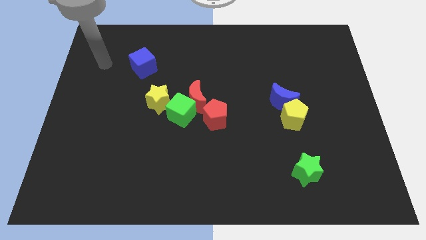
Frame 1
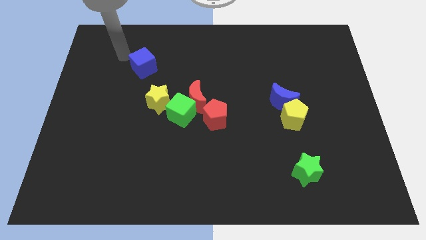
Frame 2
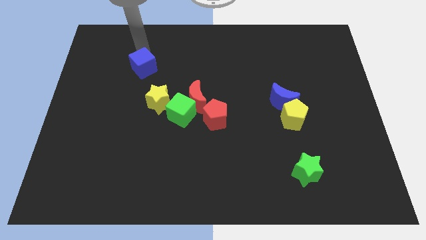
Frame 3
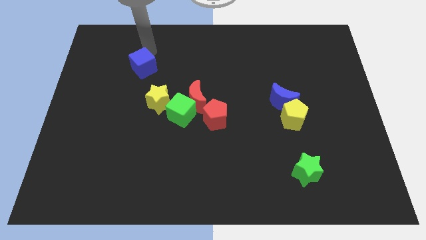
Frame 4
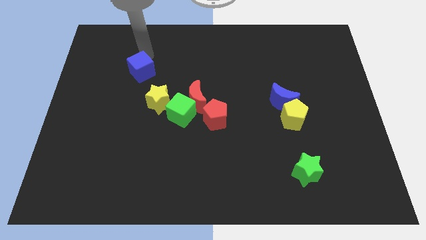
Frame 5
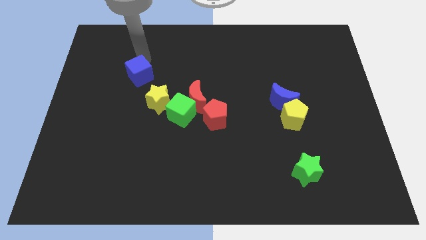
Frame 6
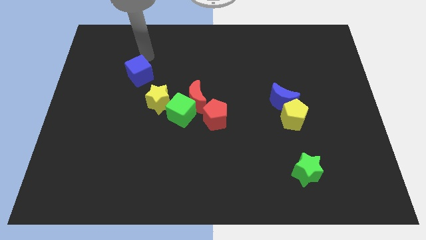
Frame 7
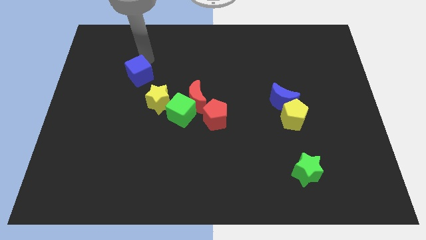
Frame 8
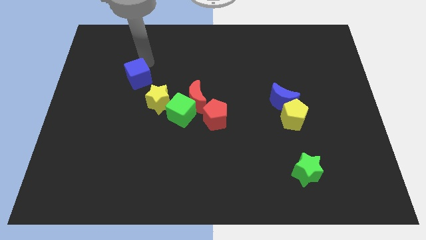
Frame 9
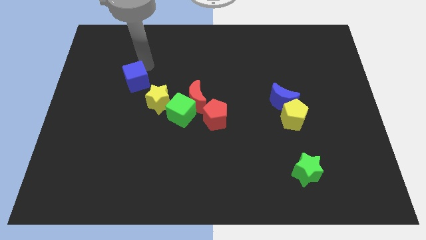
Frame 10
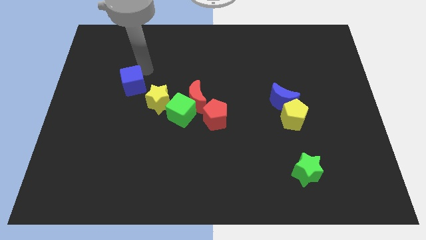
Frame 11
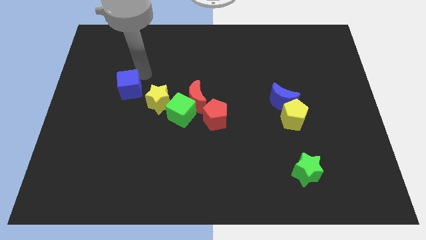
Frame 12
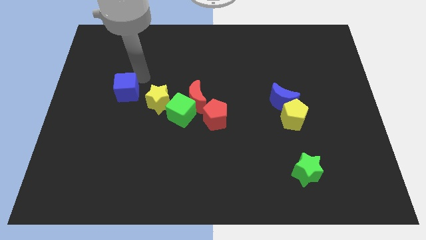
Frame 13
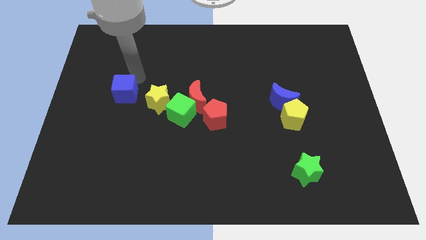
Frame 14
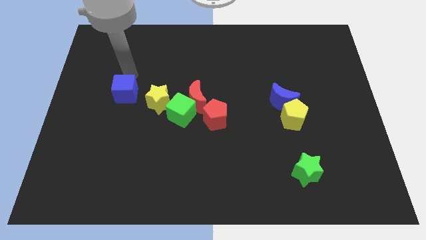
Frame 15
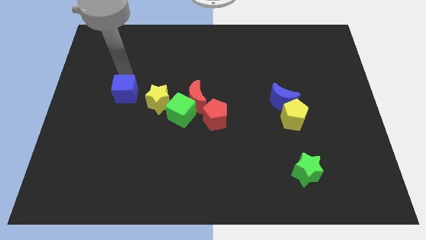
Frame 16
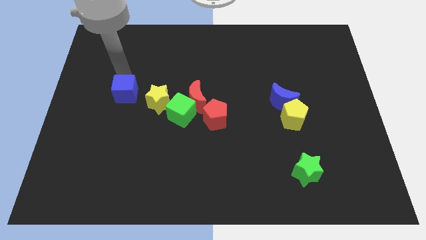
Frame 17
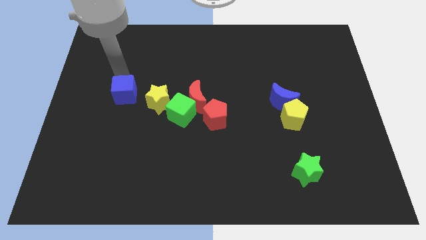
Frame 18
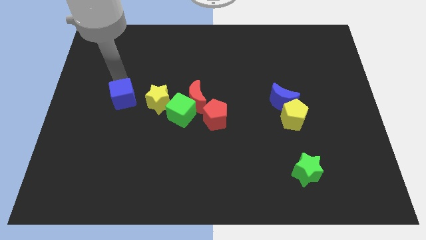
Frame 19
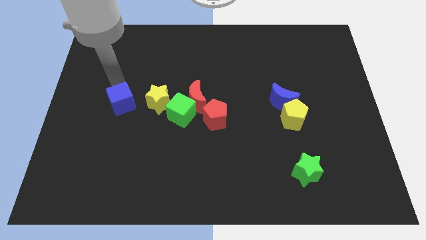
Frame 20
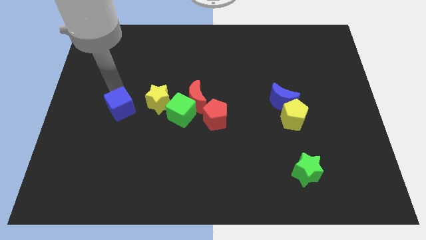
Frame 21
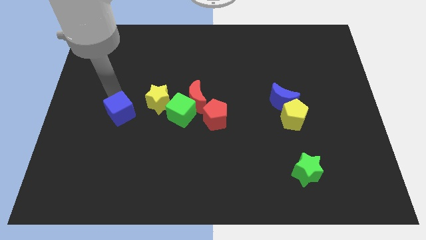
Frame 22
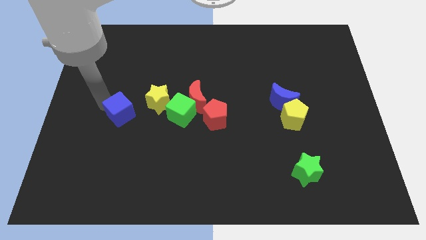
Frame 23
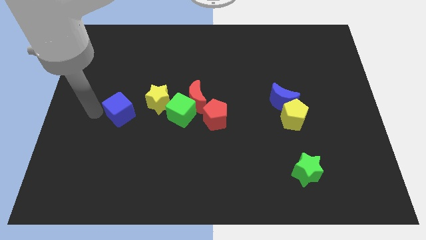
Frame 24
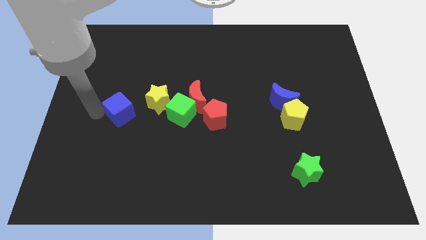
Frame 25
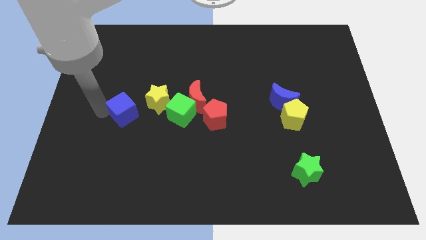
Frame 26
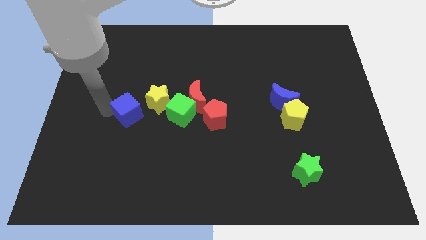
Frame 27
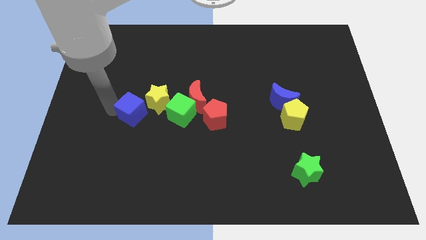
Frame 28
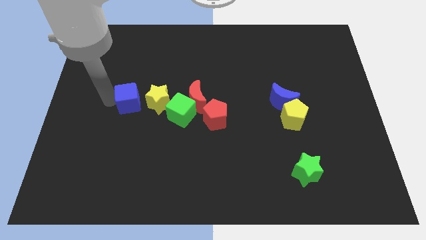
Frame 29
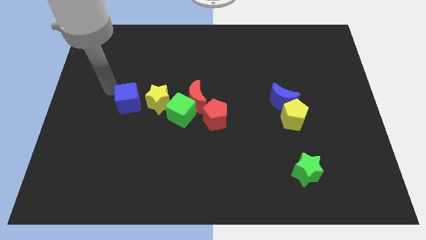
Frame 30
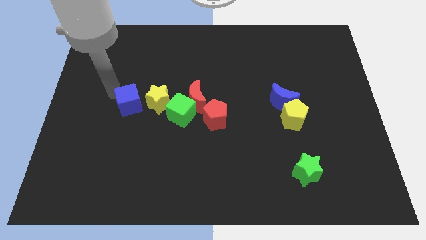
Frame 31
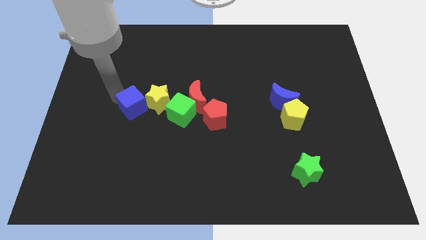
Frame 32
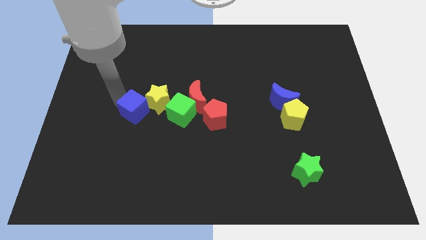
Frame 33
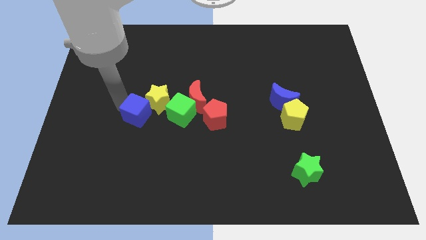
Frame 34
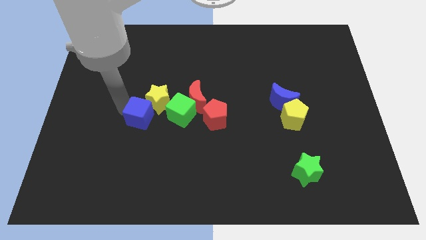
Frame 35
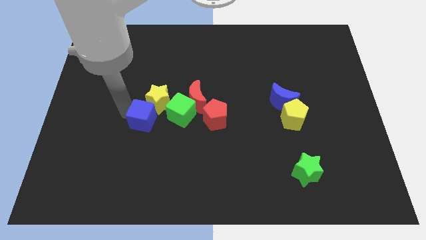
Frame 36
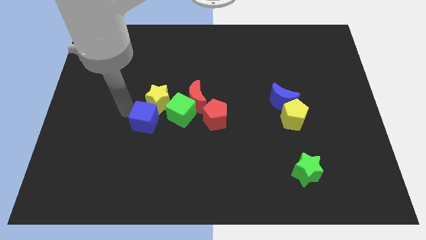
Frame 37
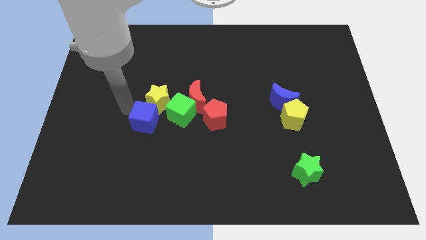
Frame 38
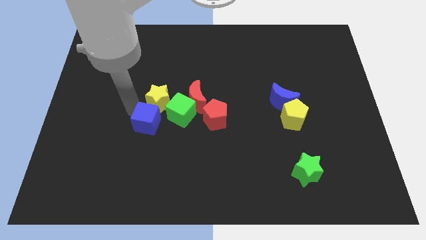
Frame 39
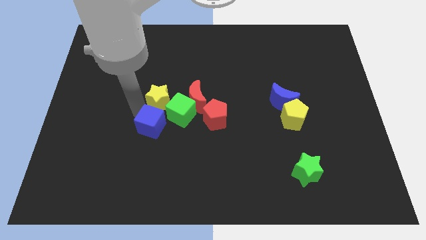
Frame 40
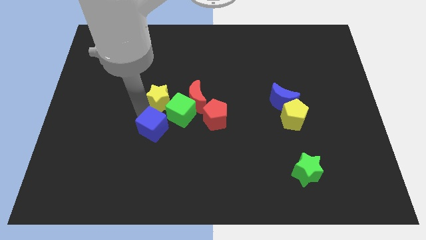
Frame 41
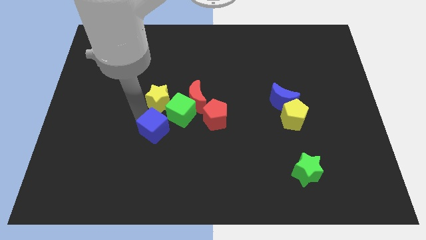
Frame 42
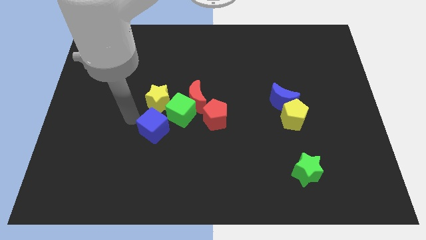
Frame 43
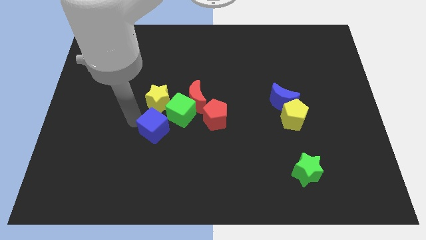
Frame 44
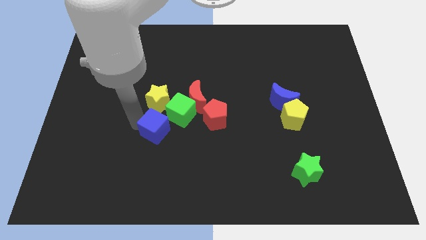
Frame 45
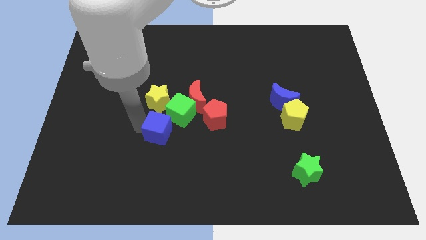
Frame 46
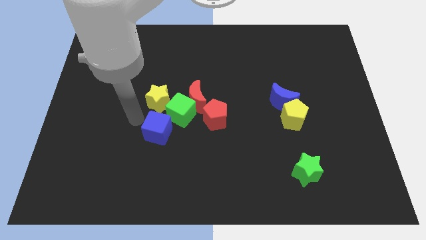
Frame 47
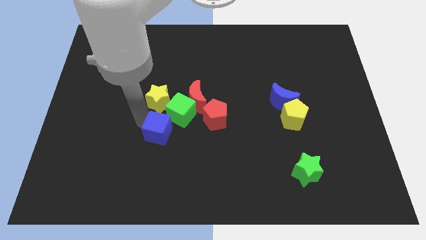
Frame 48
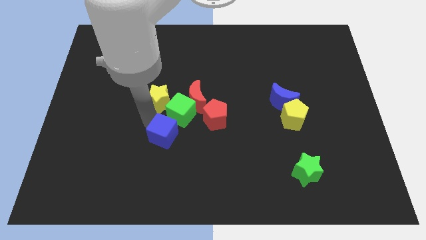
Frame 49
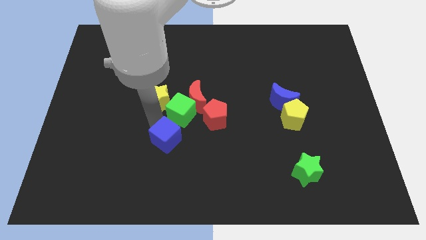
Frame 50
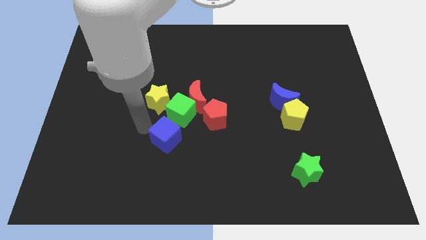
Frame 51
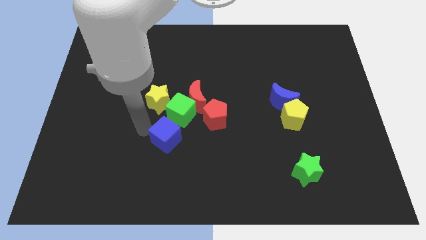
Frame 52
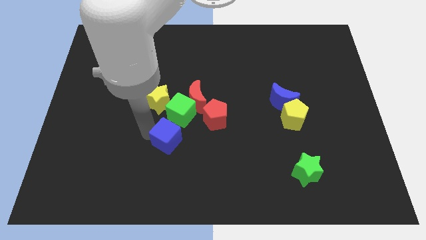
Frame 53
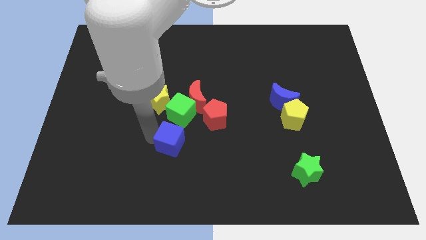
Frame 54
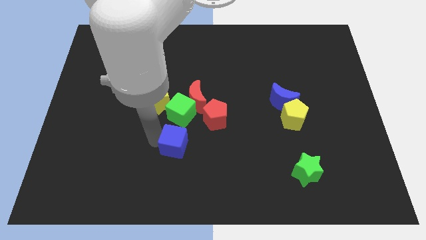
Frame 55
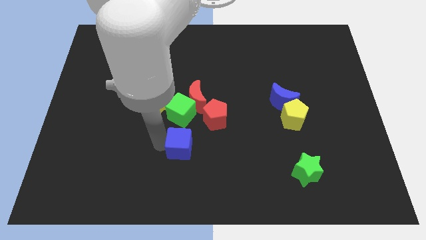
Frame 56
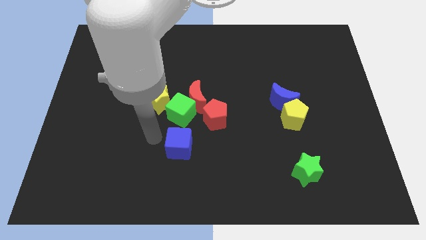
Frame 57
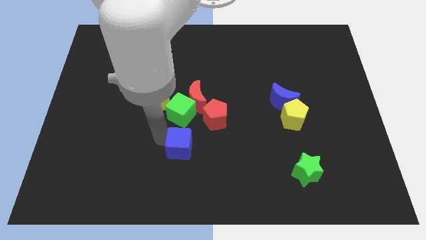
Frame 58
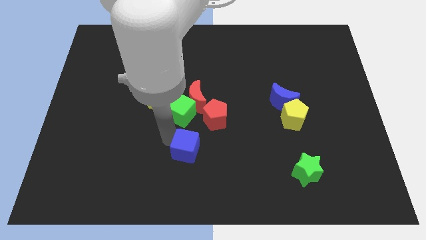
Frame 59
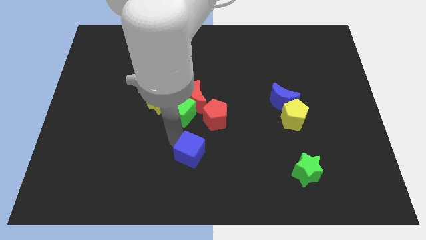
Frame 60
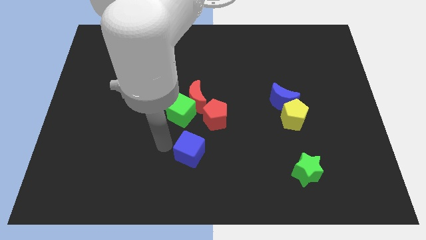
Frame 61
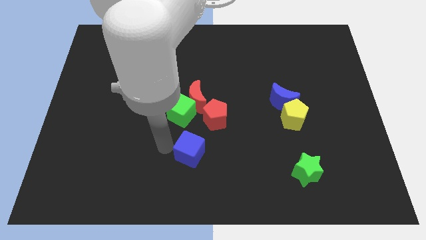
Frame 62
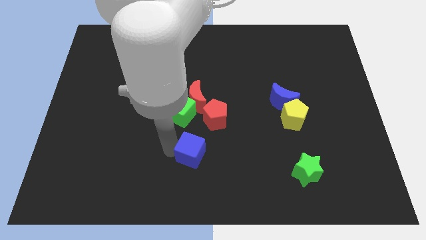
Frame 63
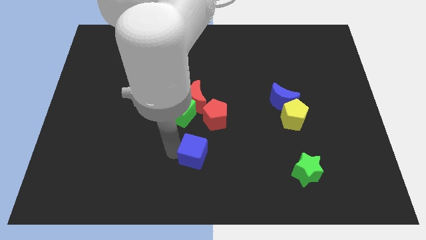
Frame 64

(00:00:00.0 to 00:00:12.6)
put the blue cube to the bottom of the red pentagon

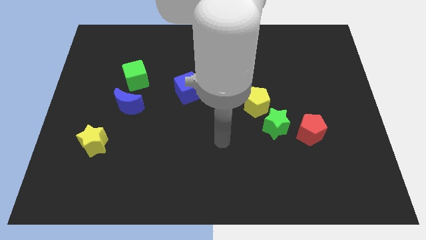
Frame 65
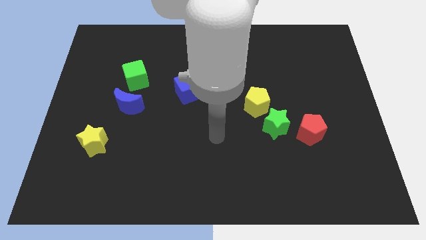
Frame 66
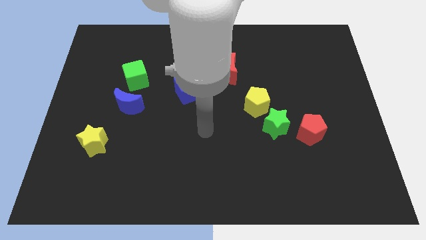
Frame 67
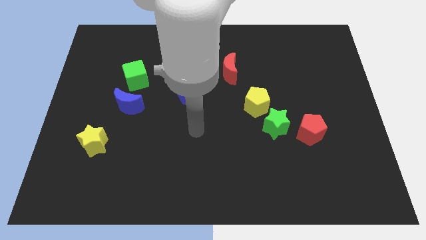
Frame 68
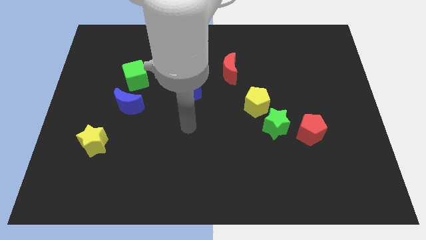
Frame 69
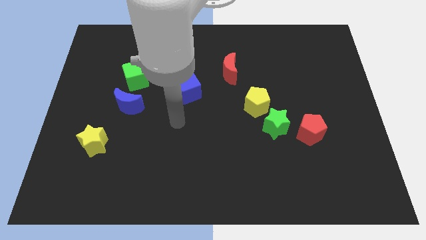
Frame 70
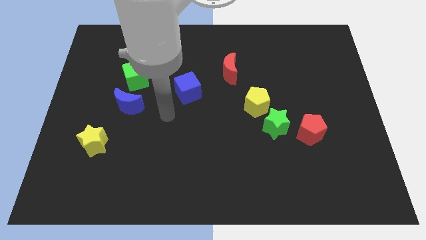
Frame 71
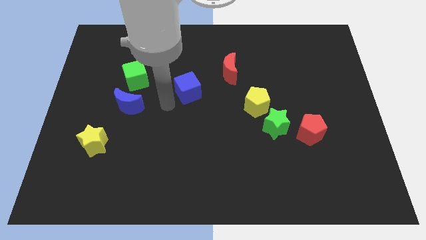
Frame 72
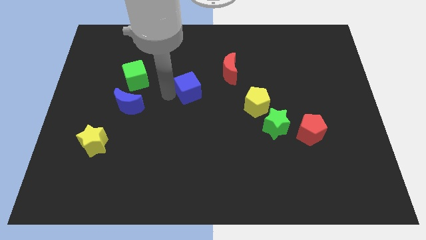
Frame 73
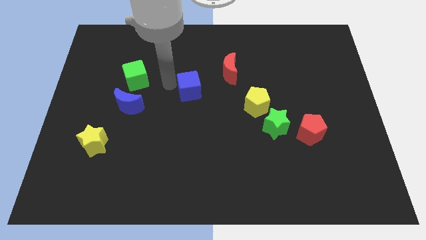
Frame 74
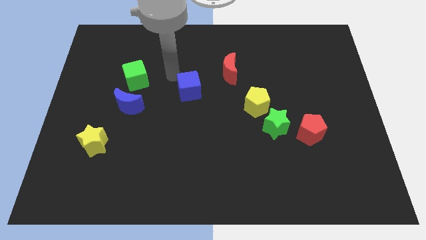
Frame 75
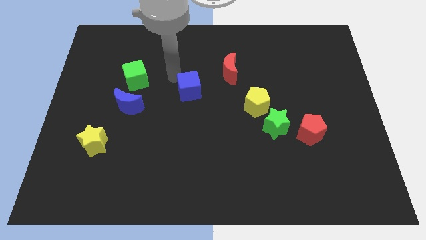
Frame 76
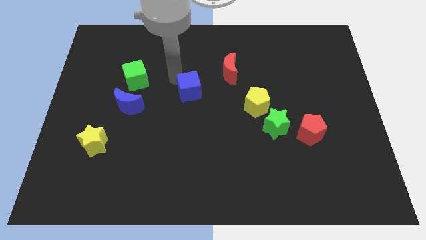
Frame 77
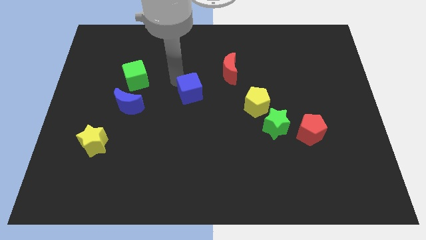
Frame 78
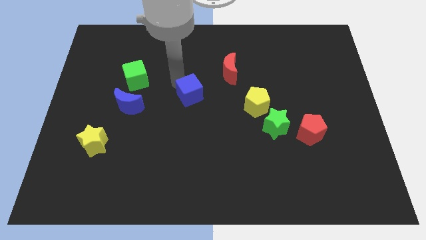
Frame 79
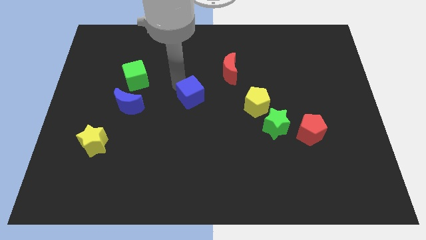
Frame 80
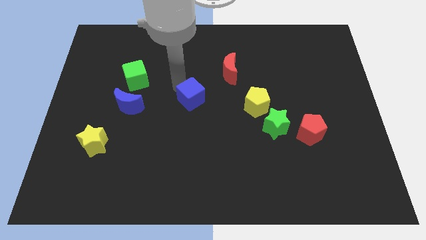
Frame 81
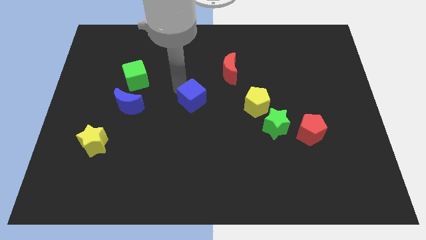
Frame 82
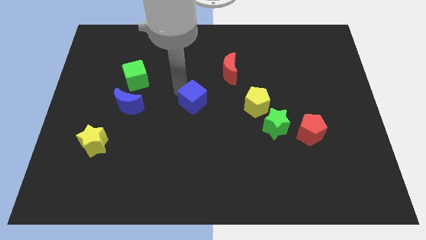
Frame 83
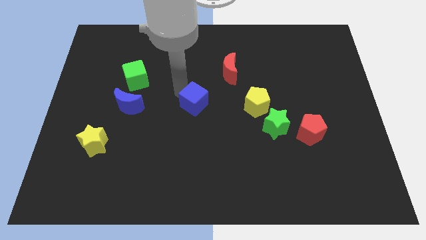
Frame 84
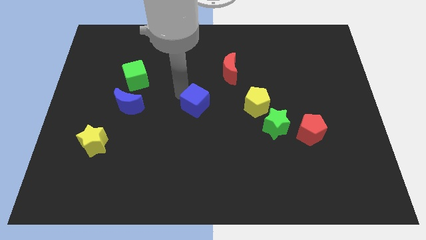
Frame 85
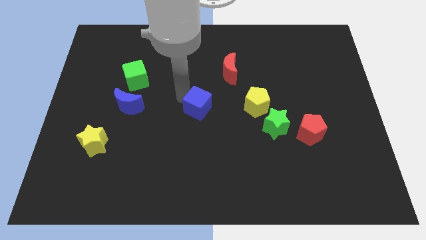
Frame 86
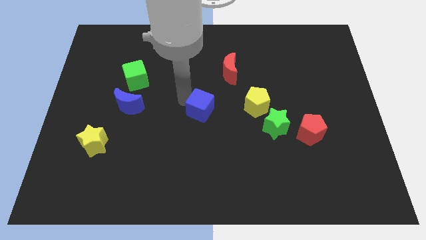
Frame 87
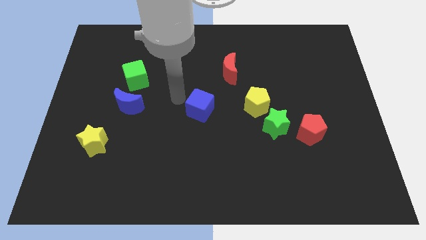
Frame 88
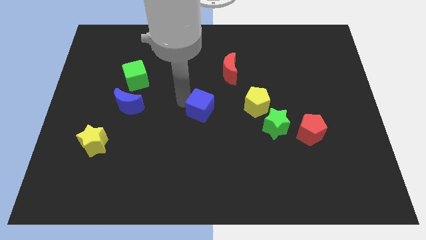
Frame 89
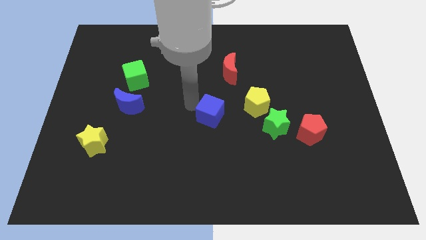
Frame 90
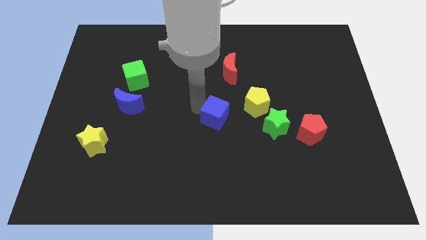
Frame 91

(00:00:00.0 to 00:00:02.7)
move the blue cube to the bottom left side of the yellow pentagon
